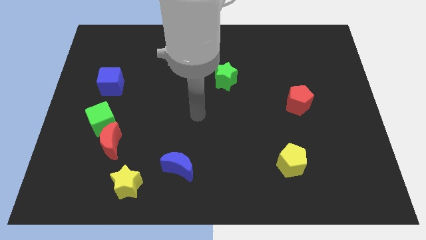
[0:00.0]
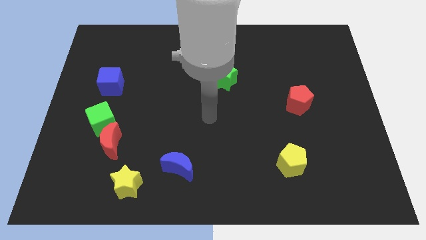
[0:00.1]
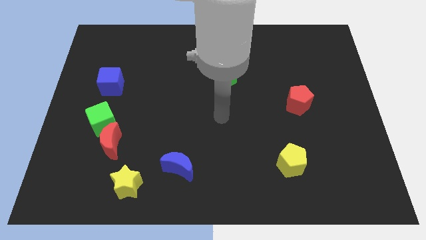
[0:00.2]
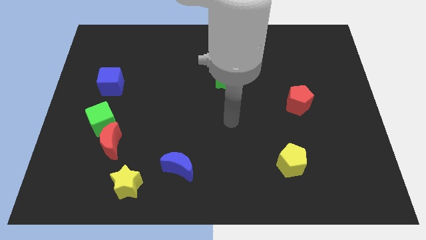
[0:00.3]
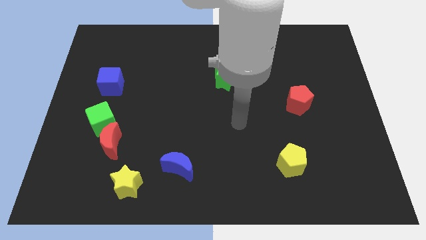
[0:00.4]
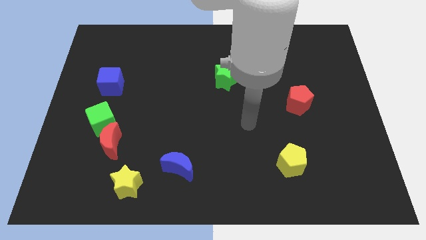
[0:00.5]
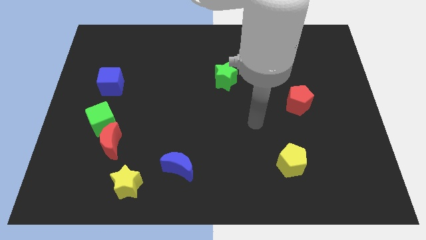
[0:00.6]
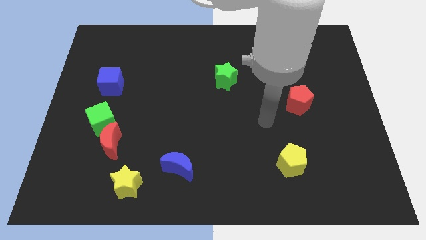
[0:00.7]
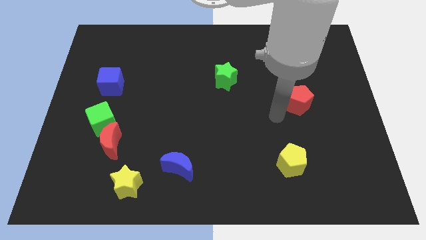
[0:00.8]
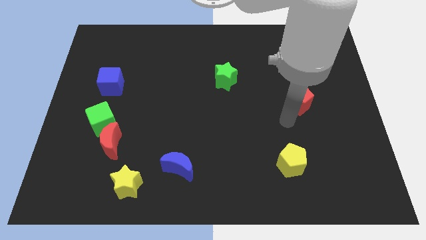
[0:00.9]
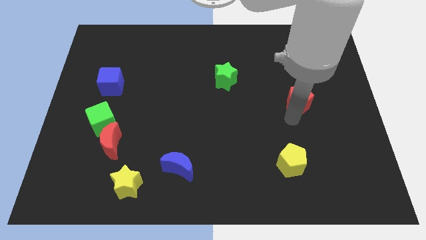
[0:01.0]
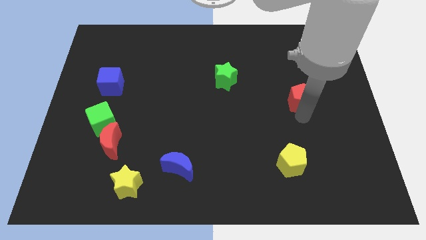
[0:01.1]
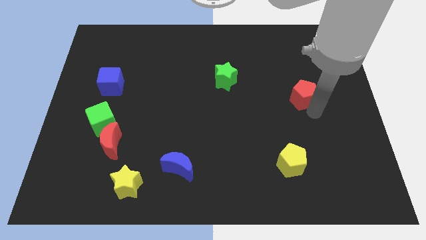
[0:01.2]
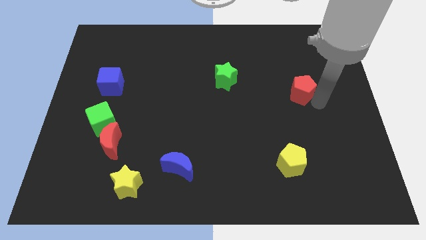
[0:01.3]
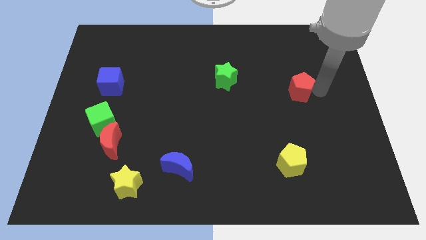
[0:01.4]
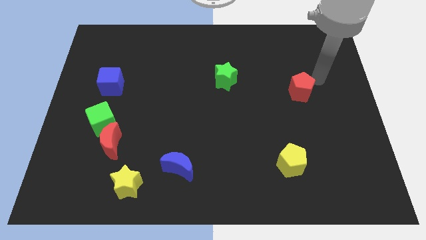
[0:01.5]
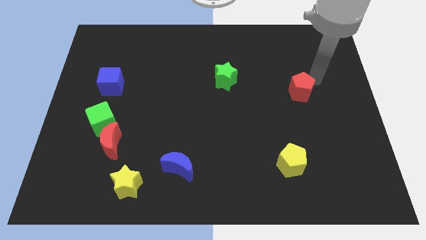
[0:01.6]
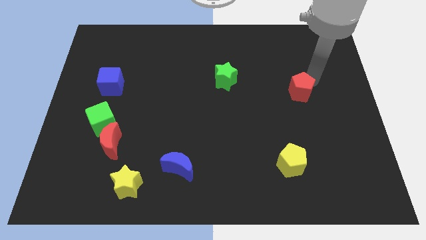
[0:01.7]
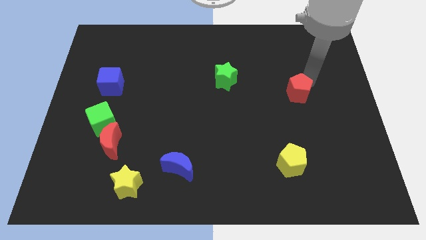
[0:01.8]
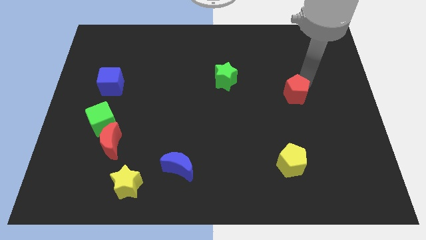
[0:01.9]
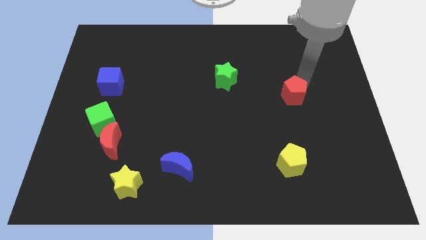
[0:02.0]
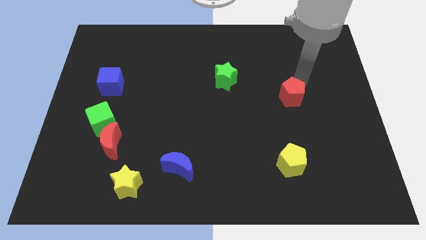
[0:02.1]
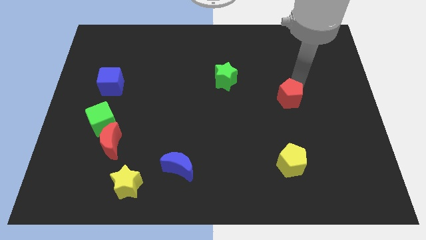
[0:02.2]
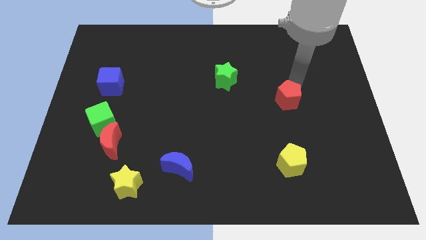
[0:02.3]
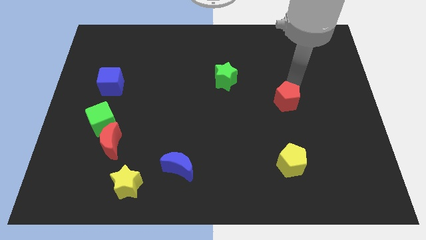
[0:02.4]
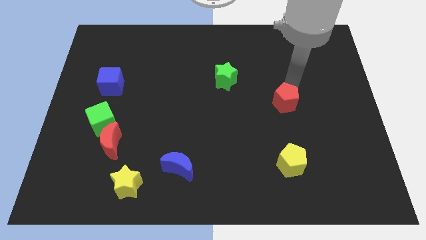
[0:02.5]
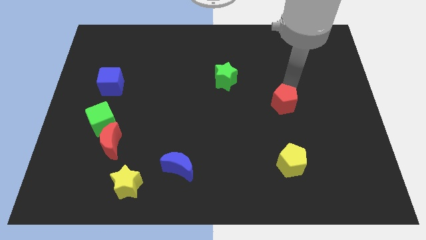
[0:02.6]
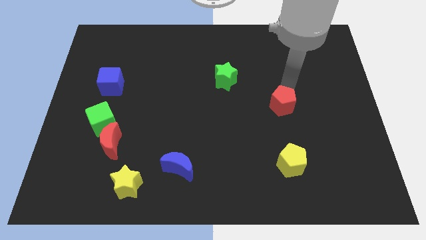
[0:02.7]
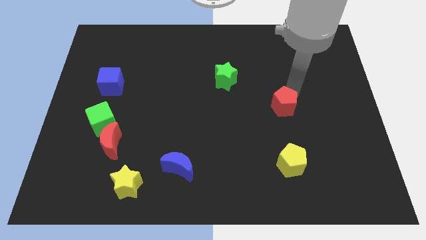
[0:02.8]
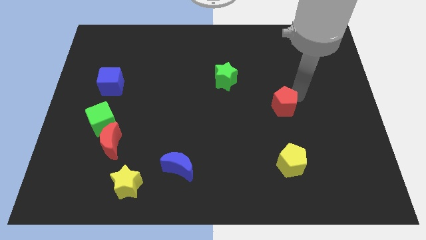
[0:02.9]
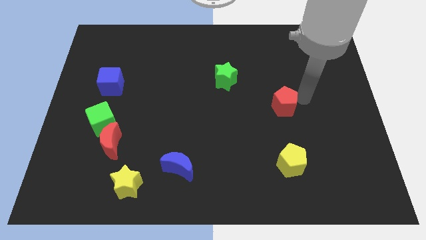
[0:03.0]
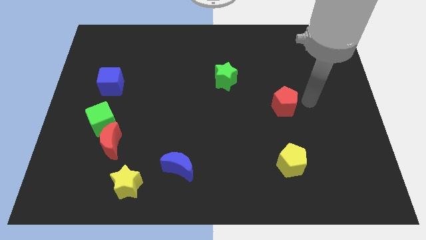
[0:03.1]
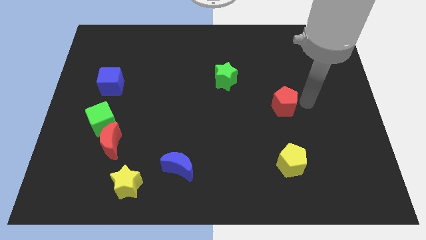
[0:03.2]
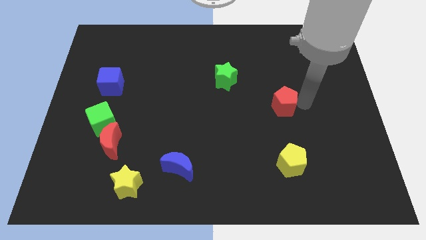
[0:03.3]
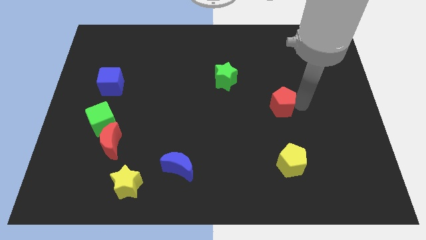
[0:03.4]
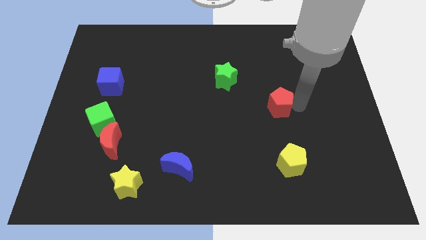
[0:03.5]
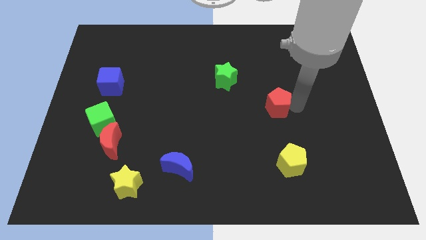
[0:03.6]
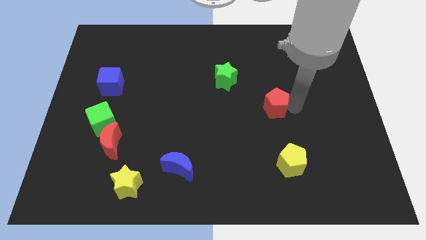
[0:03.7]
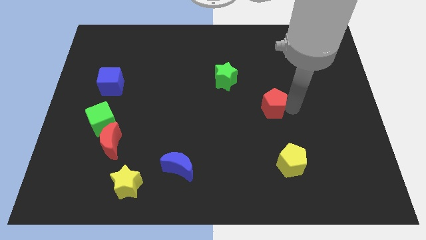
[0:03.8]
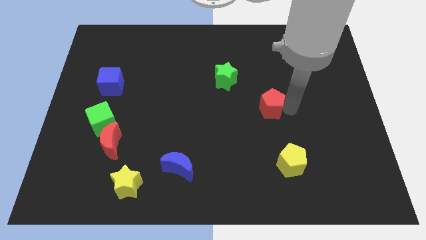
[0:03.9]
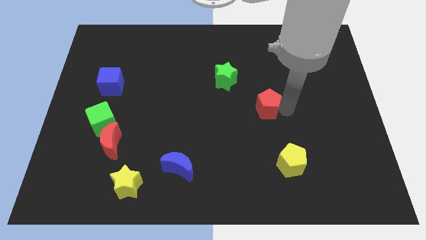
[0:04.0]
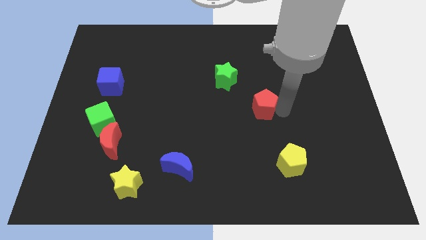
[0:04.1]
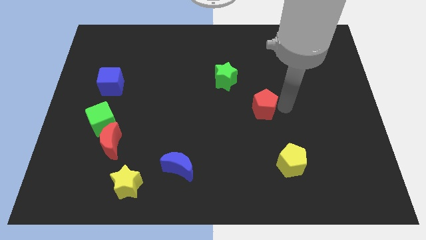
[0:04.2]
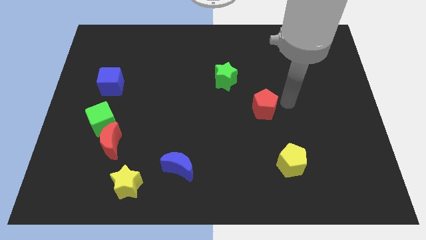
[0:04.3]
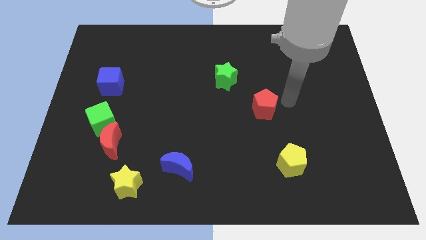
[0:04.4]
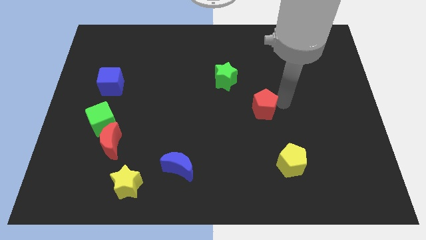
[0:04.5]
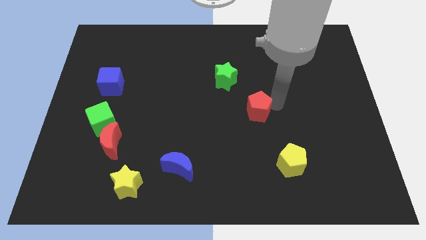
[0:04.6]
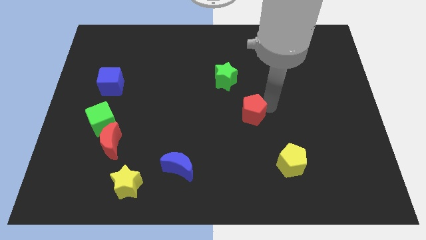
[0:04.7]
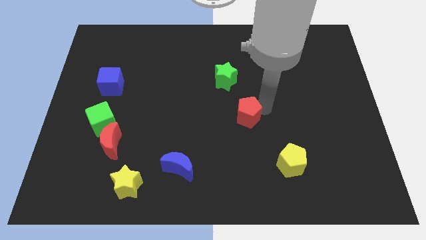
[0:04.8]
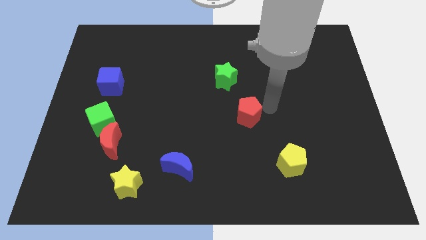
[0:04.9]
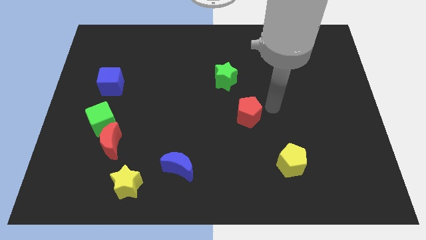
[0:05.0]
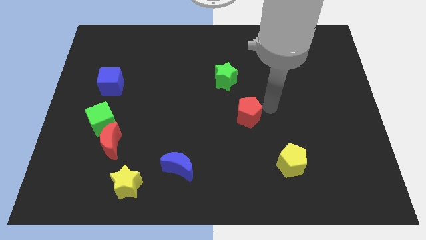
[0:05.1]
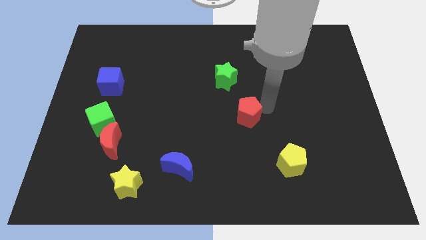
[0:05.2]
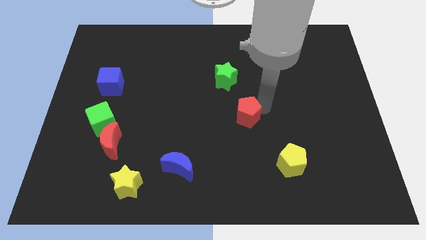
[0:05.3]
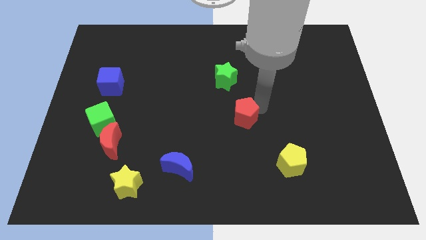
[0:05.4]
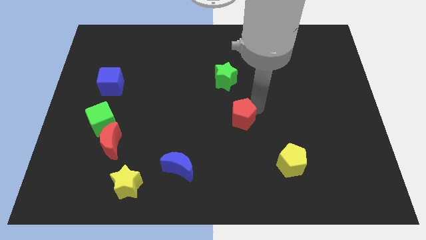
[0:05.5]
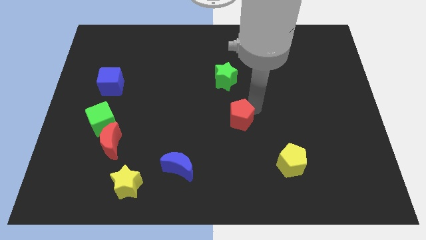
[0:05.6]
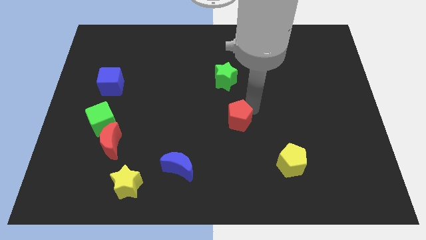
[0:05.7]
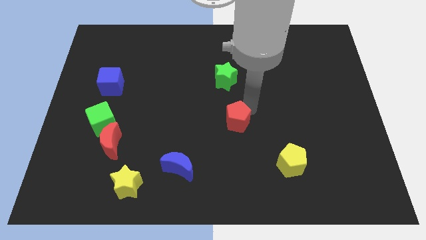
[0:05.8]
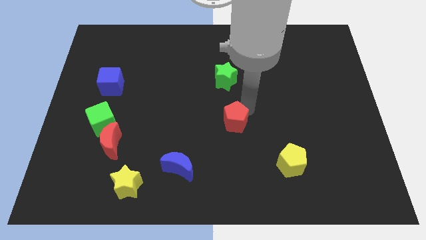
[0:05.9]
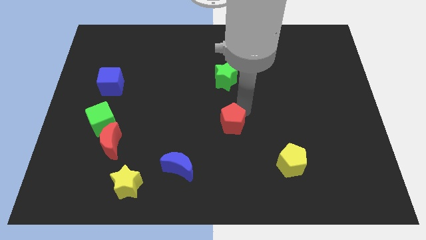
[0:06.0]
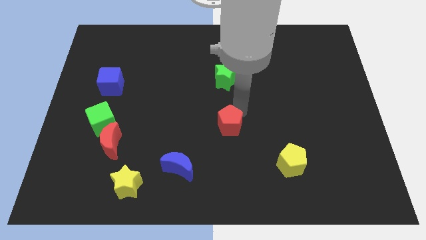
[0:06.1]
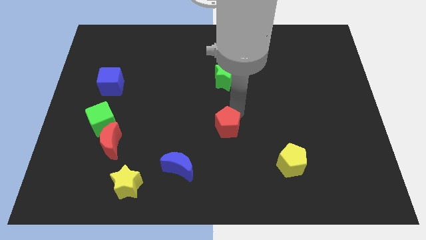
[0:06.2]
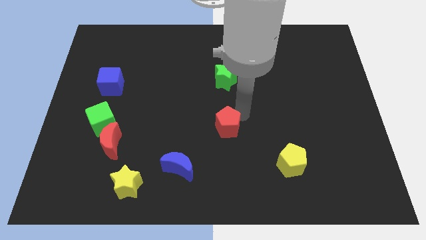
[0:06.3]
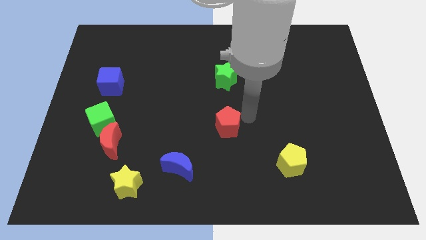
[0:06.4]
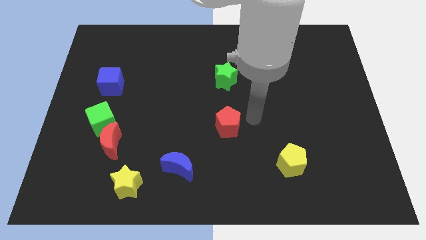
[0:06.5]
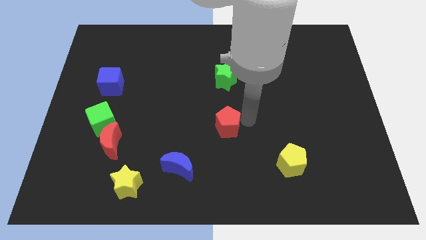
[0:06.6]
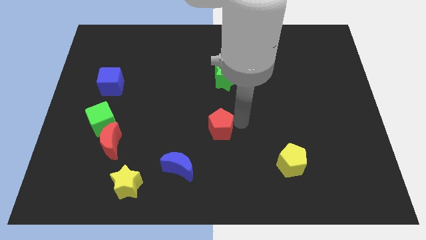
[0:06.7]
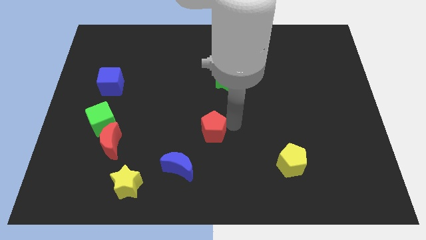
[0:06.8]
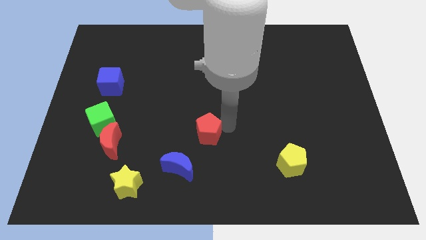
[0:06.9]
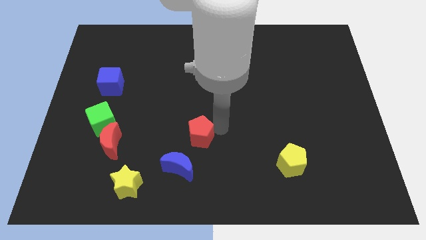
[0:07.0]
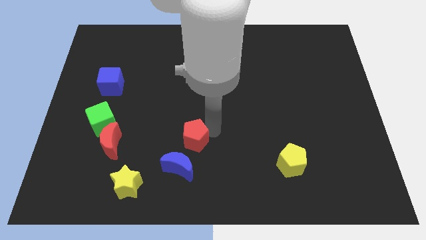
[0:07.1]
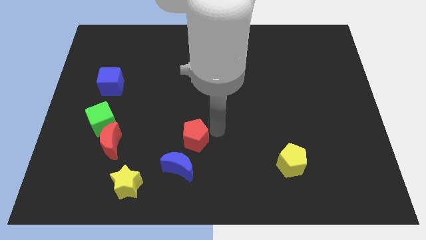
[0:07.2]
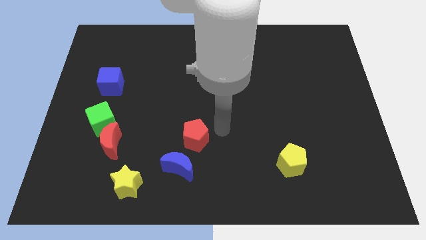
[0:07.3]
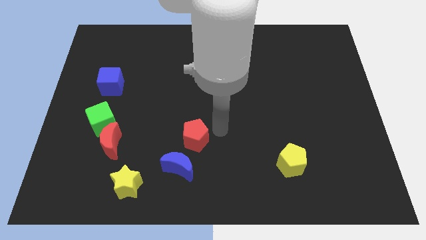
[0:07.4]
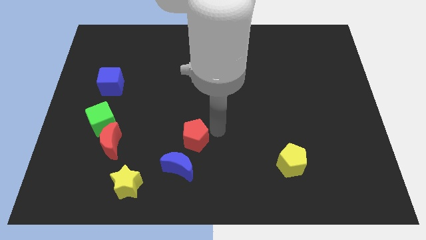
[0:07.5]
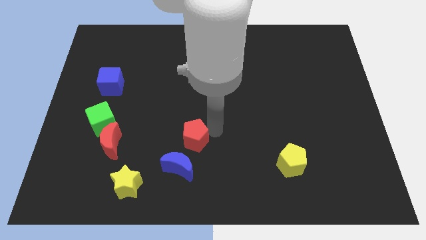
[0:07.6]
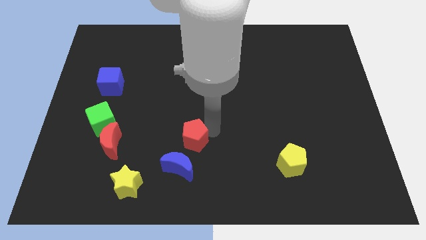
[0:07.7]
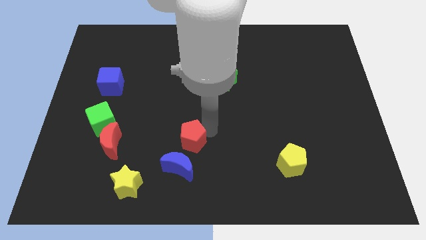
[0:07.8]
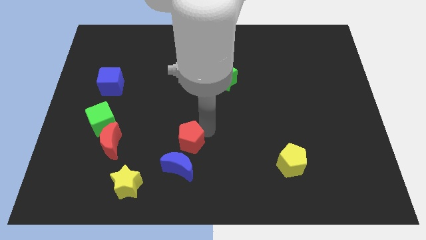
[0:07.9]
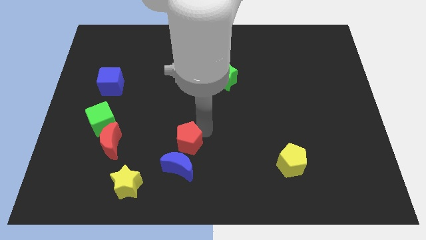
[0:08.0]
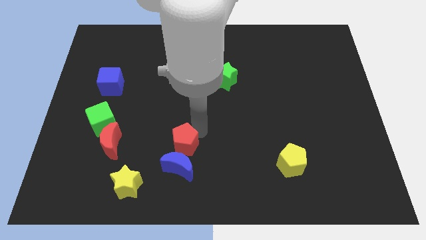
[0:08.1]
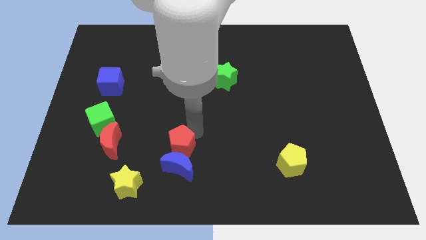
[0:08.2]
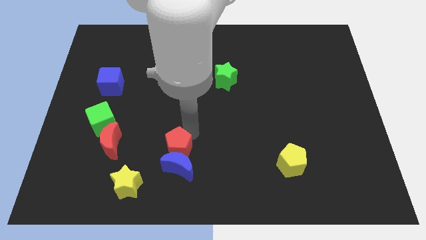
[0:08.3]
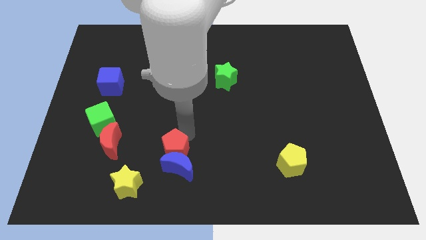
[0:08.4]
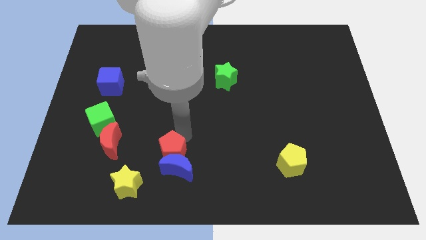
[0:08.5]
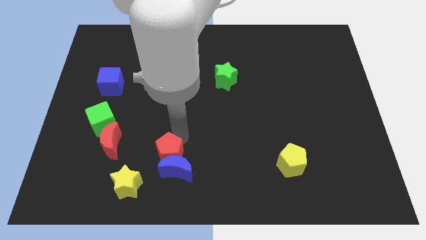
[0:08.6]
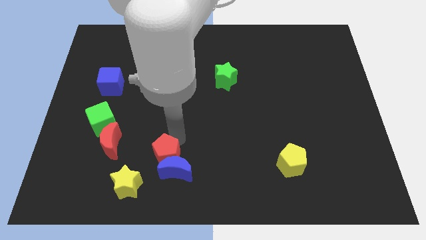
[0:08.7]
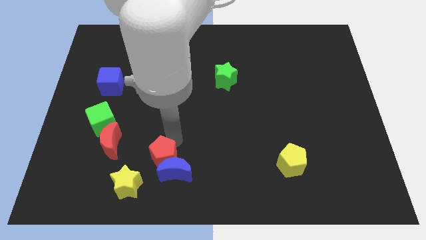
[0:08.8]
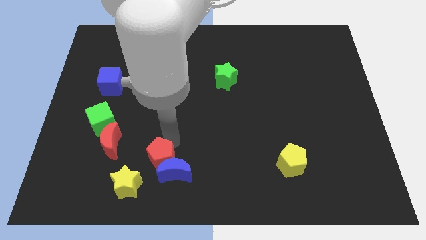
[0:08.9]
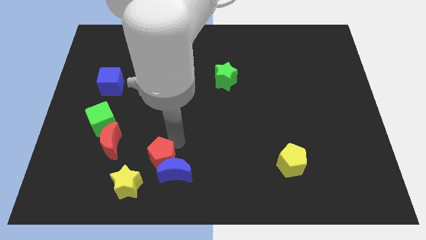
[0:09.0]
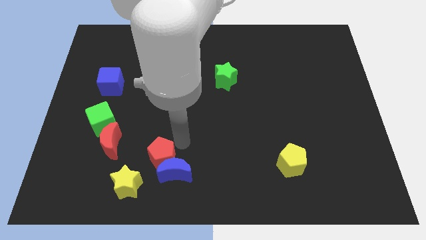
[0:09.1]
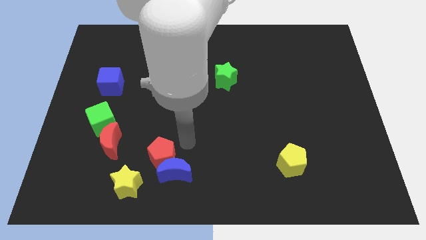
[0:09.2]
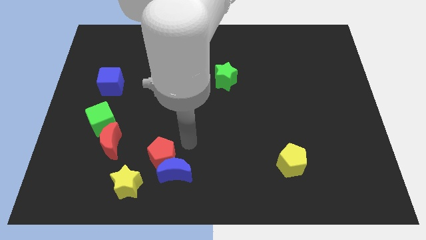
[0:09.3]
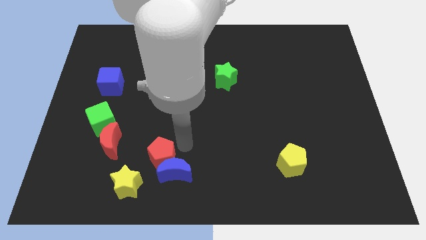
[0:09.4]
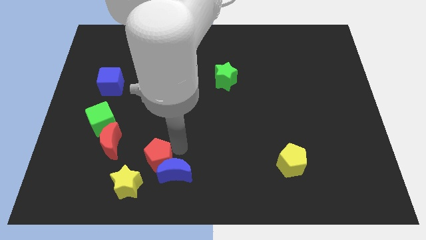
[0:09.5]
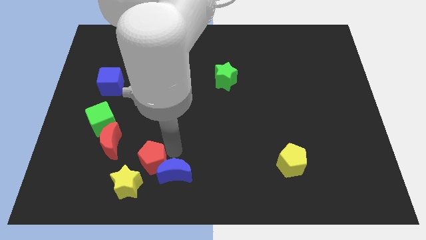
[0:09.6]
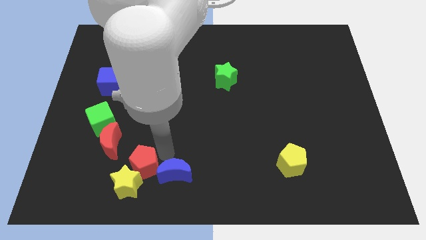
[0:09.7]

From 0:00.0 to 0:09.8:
move the red pentagon close to the yellow star
